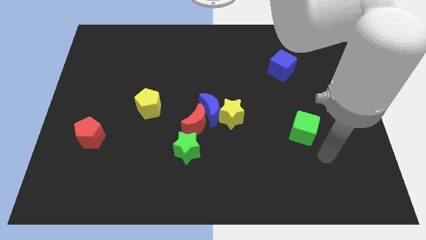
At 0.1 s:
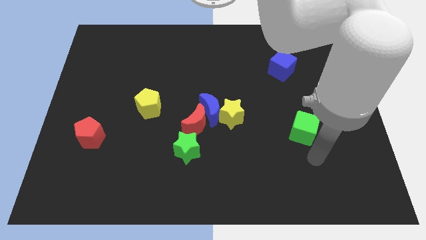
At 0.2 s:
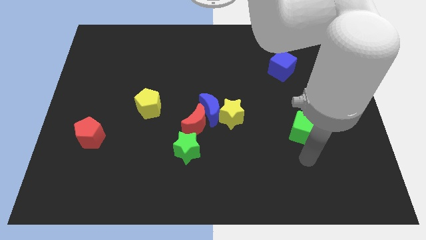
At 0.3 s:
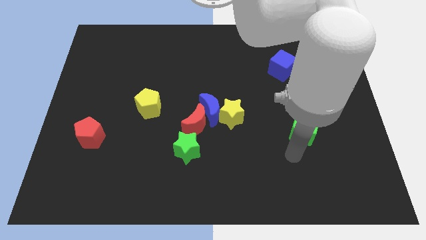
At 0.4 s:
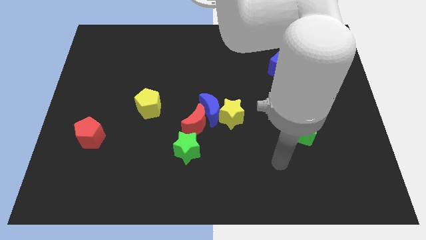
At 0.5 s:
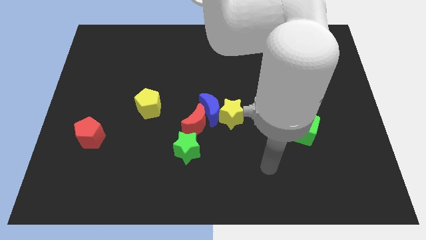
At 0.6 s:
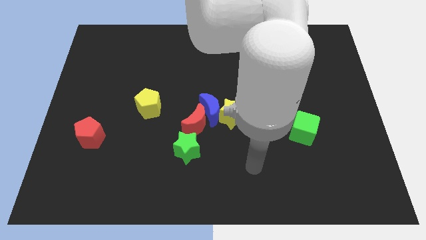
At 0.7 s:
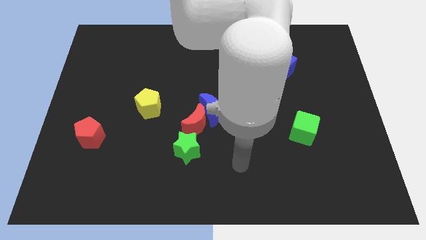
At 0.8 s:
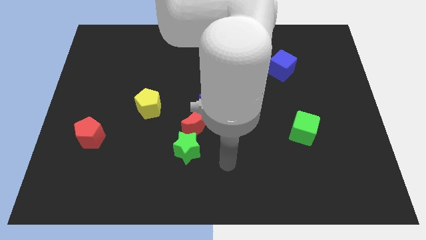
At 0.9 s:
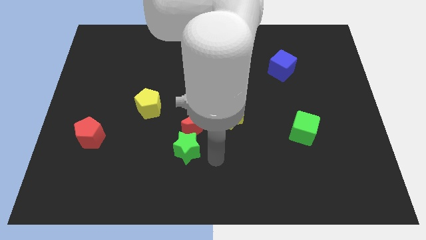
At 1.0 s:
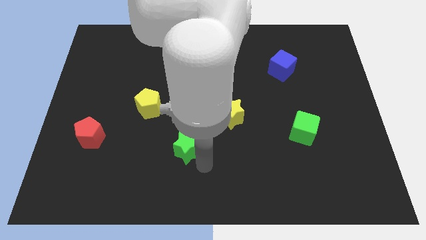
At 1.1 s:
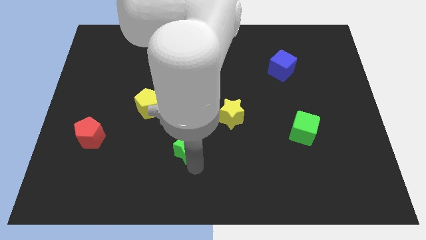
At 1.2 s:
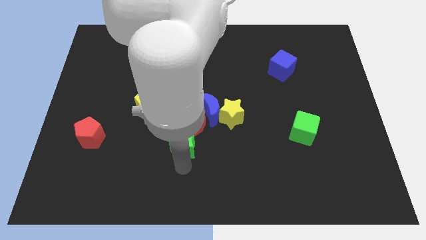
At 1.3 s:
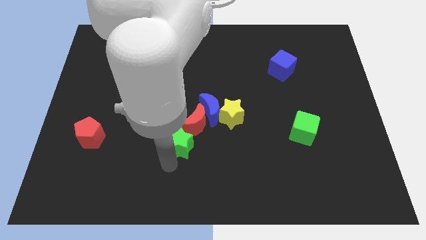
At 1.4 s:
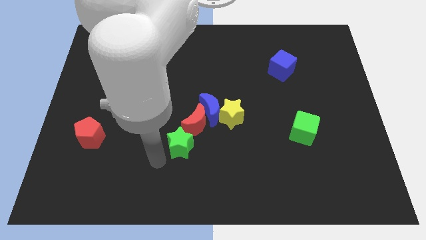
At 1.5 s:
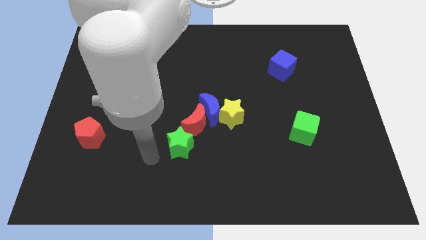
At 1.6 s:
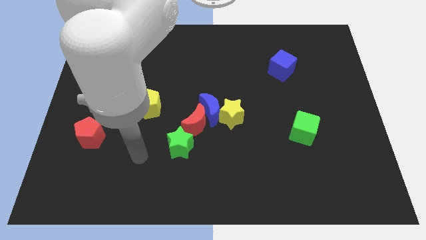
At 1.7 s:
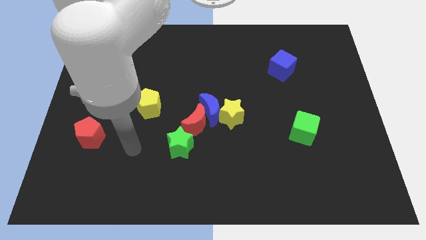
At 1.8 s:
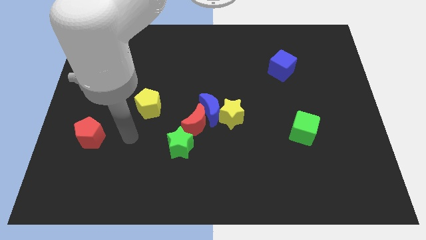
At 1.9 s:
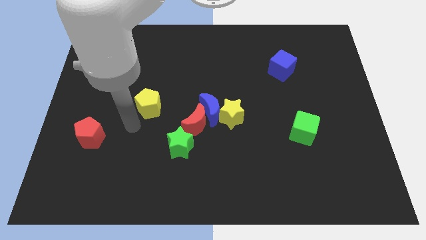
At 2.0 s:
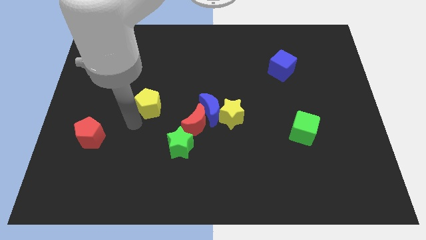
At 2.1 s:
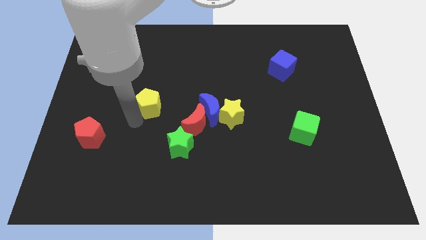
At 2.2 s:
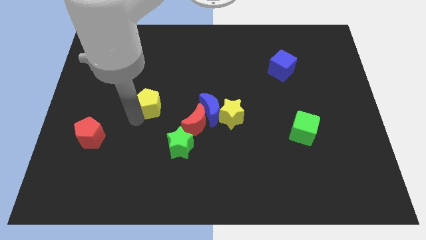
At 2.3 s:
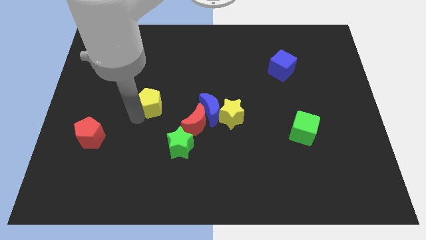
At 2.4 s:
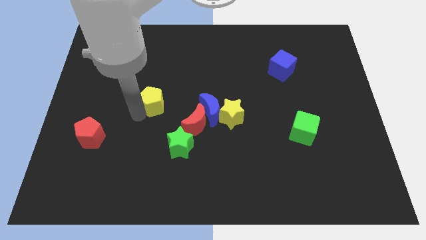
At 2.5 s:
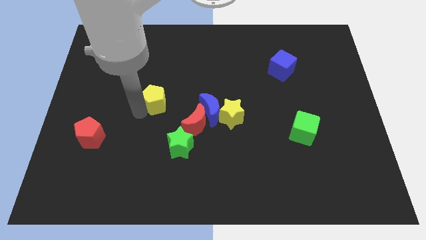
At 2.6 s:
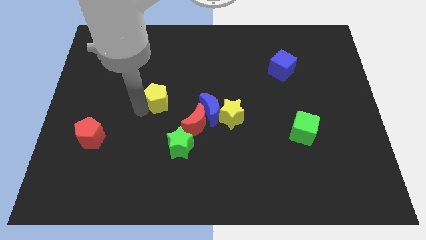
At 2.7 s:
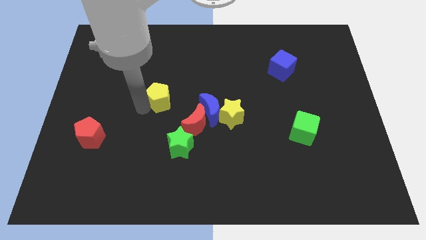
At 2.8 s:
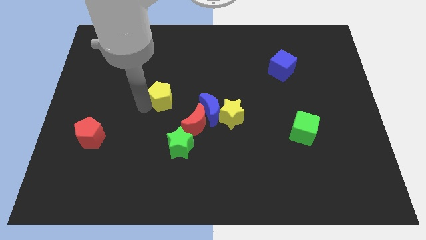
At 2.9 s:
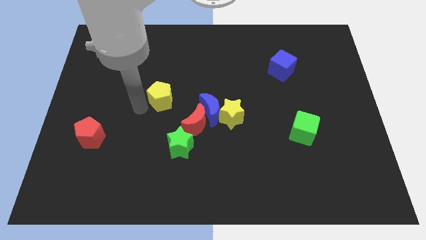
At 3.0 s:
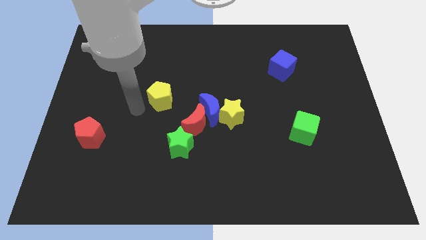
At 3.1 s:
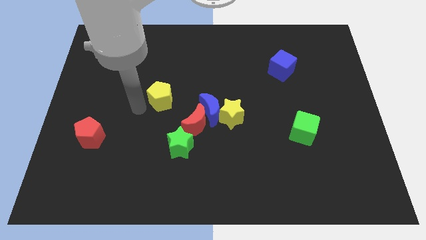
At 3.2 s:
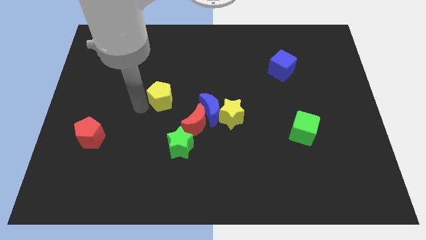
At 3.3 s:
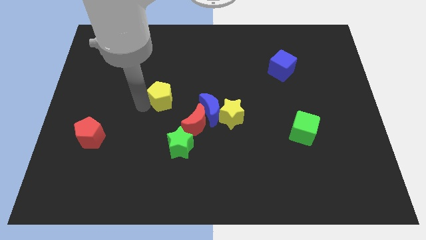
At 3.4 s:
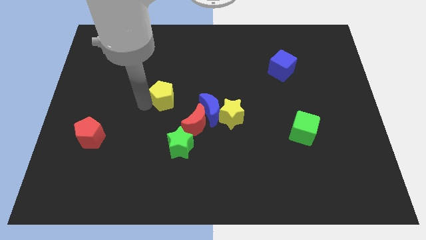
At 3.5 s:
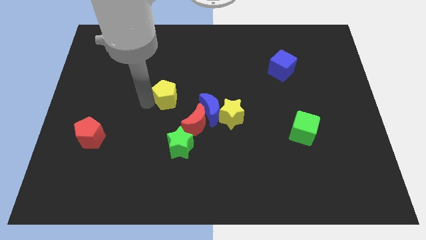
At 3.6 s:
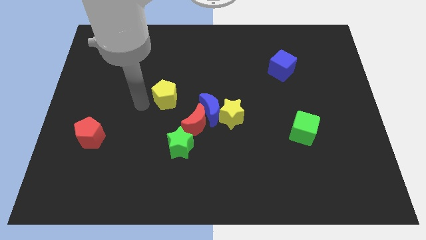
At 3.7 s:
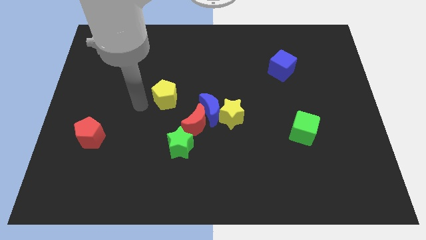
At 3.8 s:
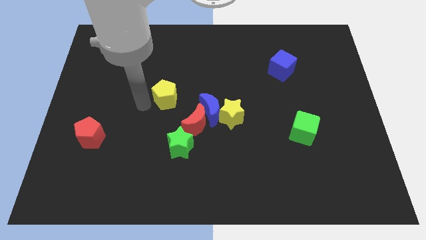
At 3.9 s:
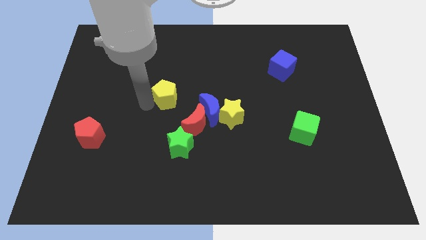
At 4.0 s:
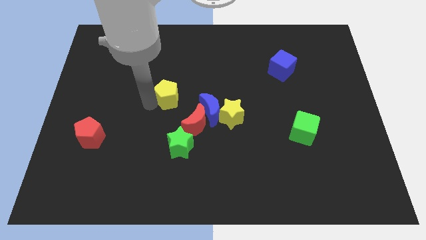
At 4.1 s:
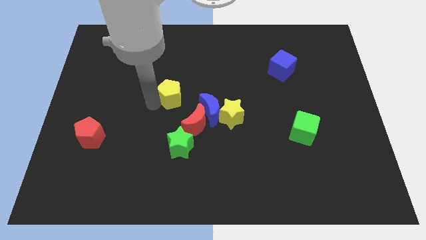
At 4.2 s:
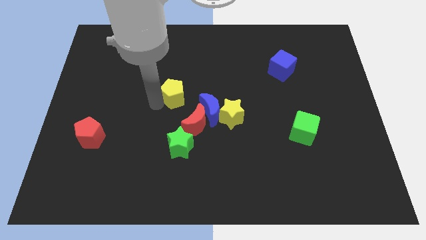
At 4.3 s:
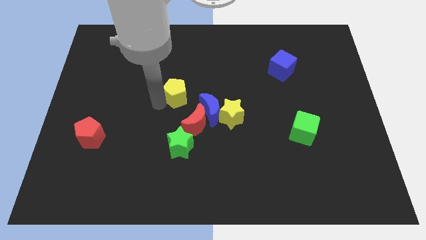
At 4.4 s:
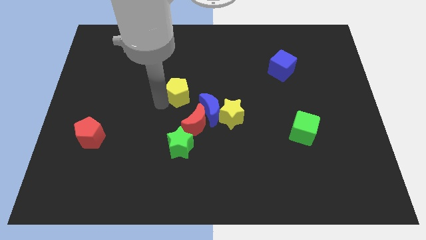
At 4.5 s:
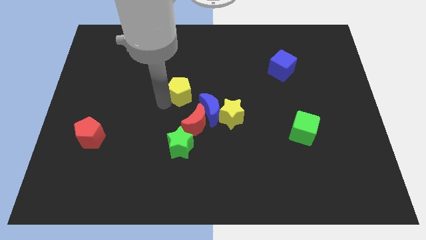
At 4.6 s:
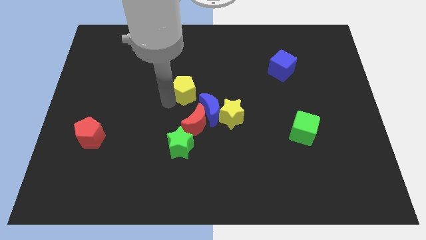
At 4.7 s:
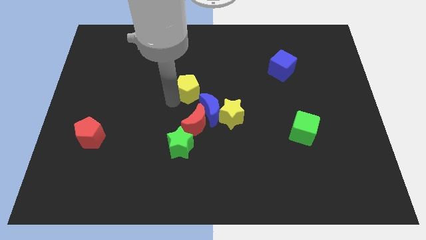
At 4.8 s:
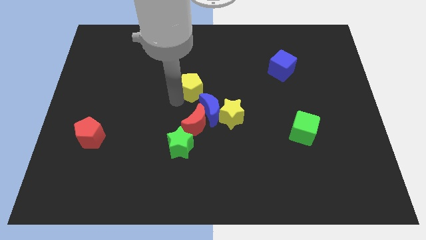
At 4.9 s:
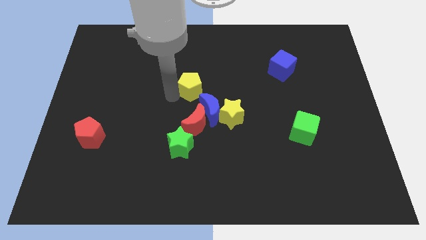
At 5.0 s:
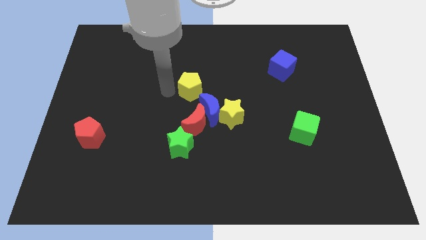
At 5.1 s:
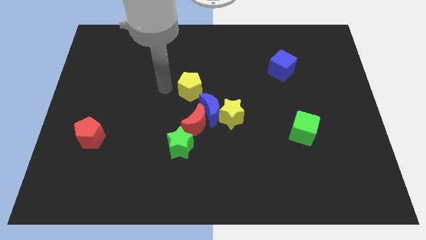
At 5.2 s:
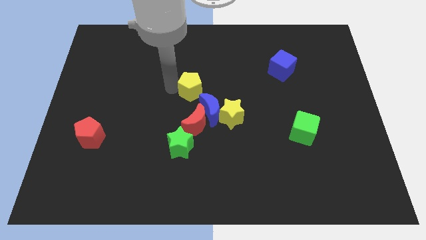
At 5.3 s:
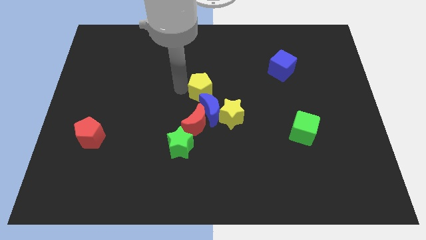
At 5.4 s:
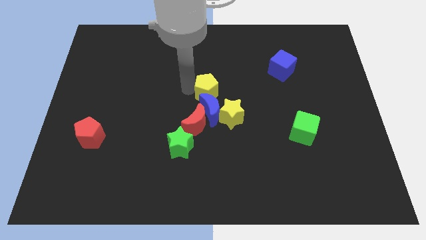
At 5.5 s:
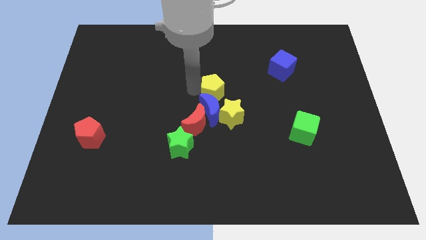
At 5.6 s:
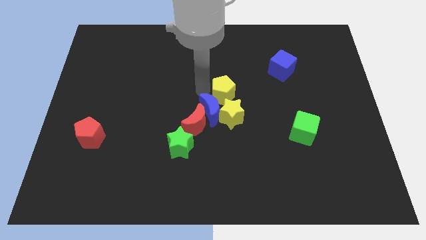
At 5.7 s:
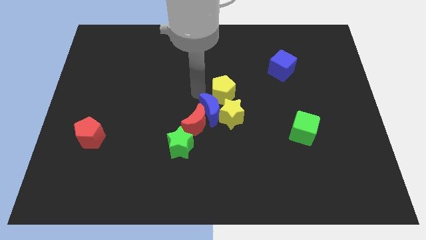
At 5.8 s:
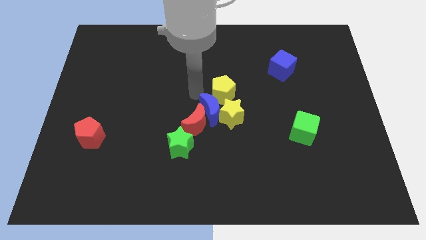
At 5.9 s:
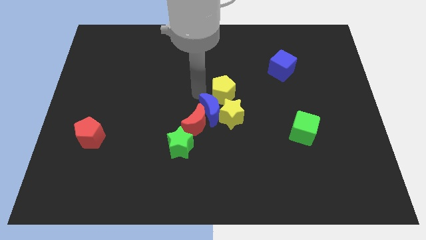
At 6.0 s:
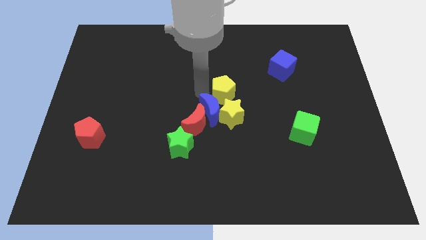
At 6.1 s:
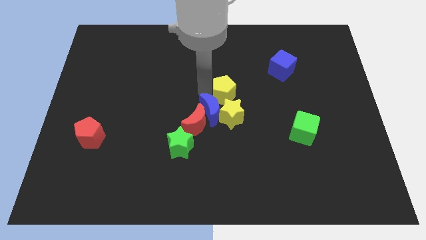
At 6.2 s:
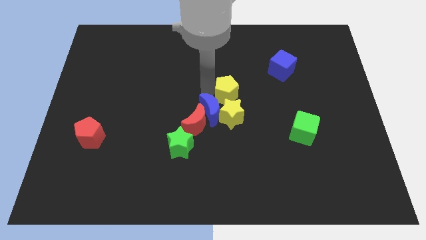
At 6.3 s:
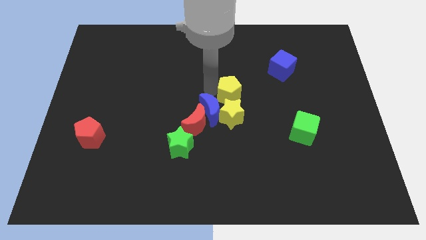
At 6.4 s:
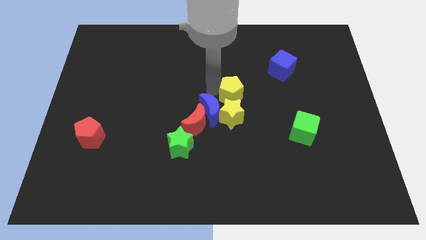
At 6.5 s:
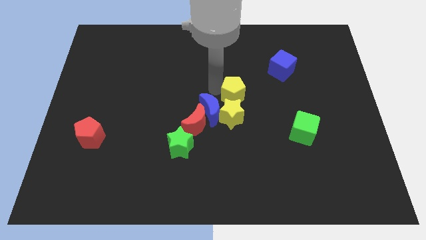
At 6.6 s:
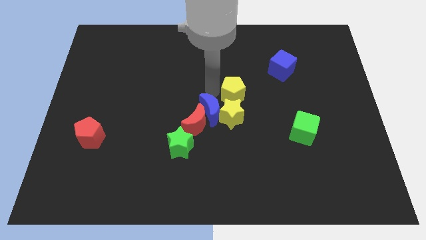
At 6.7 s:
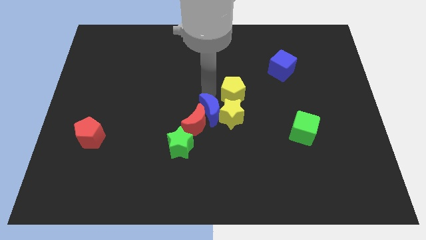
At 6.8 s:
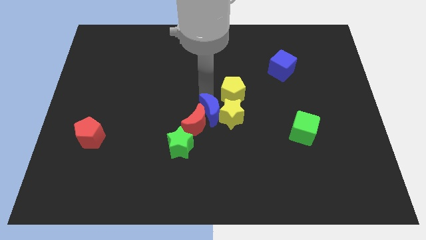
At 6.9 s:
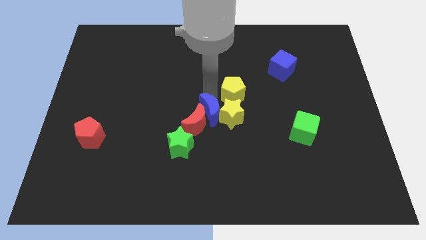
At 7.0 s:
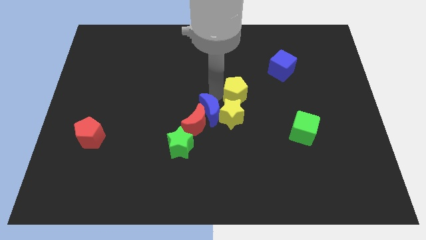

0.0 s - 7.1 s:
move the yellow pentagon to the right

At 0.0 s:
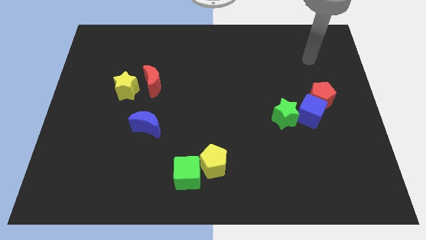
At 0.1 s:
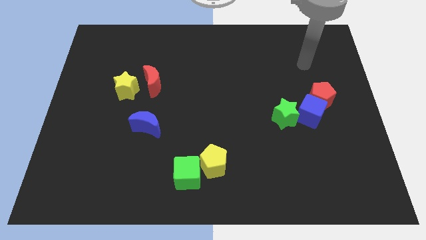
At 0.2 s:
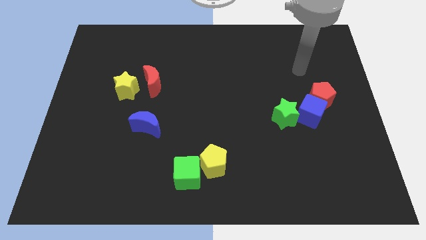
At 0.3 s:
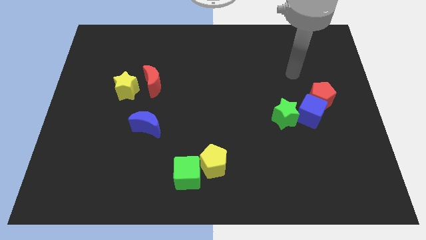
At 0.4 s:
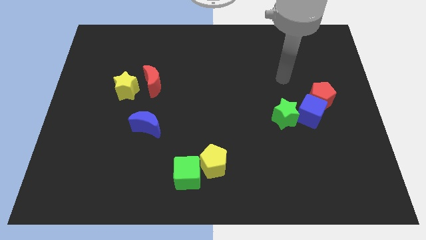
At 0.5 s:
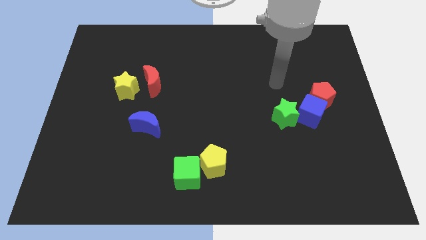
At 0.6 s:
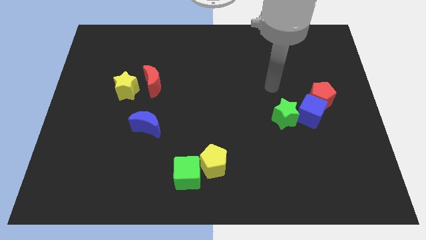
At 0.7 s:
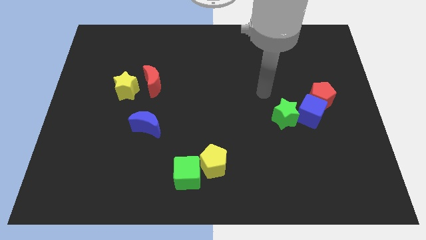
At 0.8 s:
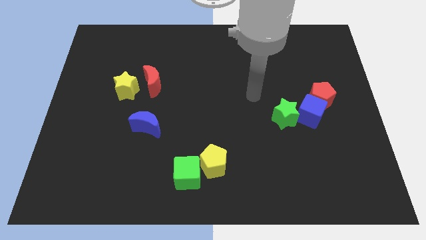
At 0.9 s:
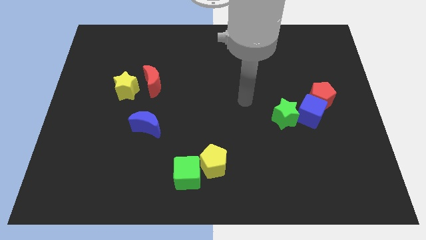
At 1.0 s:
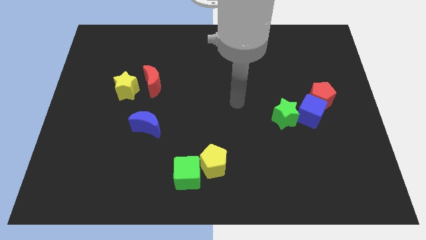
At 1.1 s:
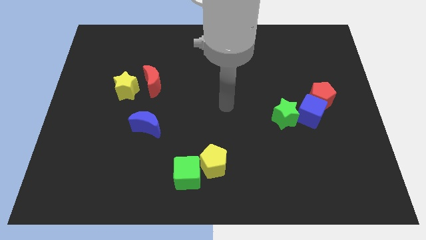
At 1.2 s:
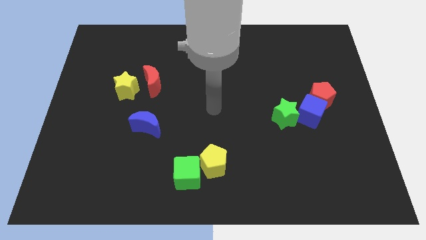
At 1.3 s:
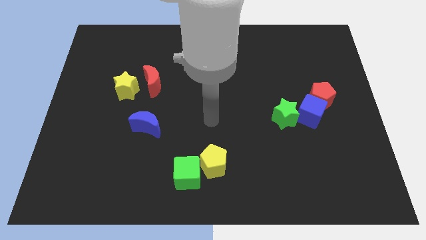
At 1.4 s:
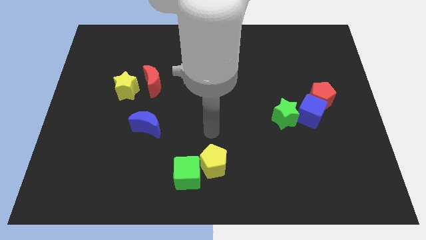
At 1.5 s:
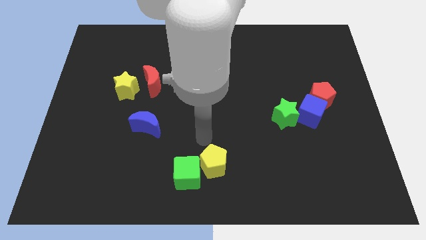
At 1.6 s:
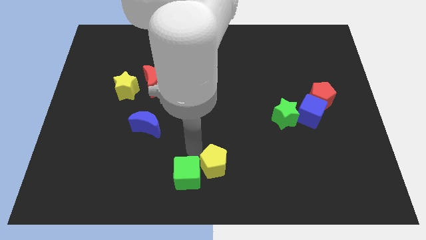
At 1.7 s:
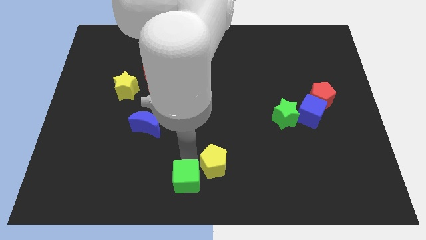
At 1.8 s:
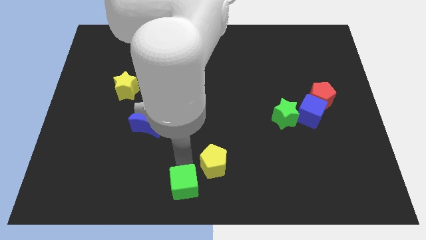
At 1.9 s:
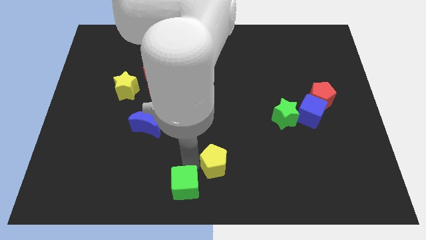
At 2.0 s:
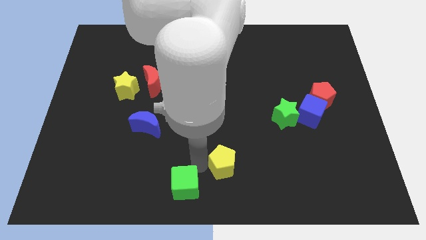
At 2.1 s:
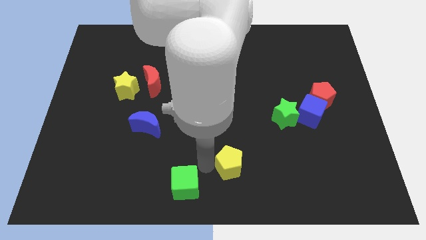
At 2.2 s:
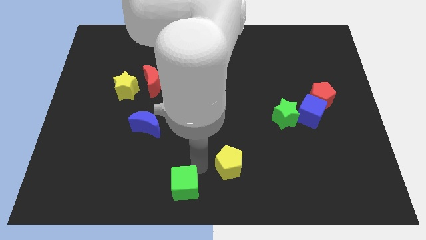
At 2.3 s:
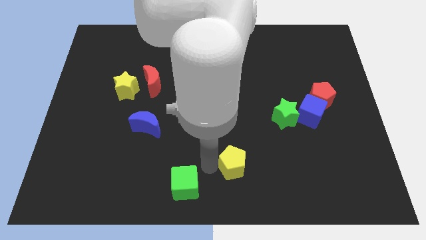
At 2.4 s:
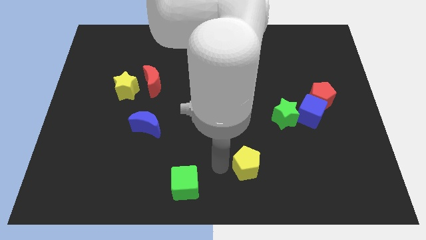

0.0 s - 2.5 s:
push the yellow pentagon right somewhat
